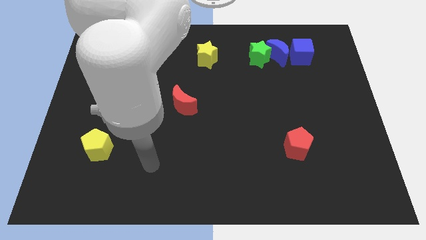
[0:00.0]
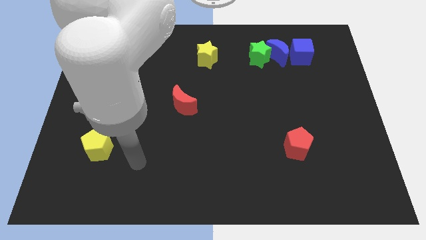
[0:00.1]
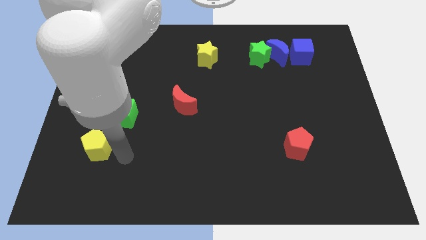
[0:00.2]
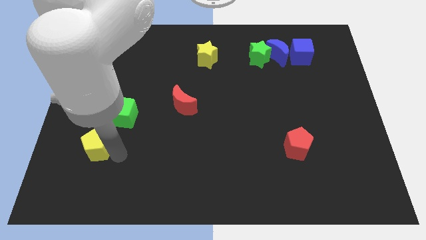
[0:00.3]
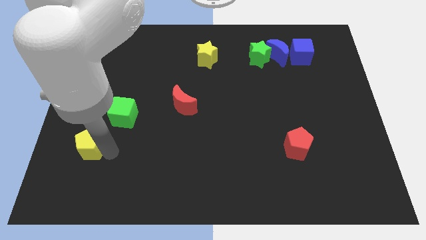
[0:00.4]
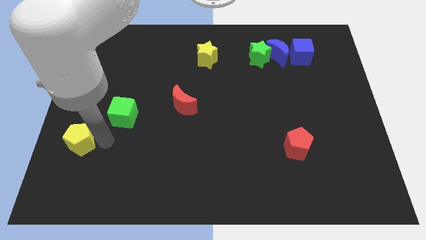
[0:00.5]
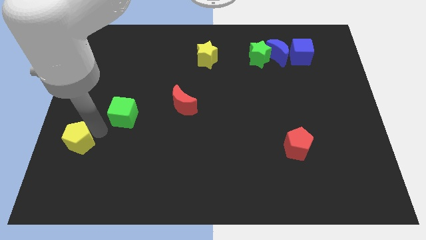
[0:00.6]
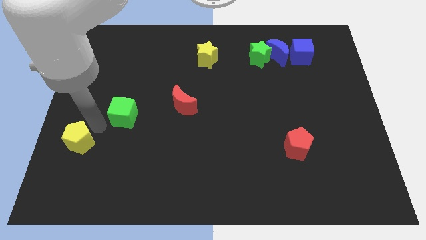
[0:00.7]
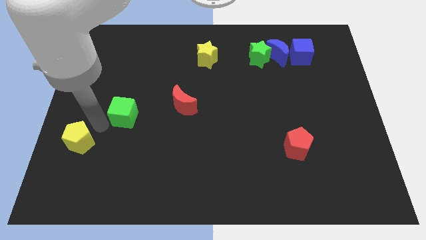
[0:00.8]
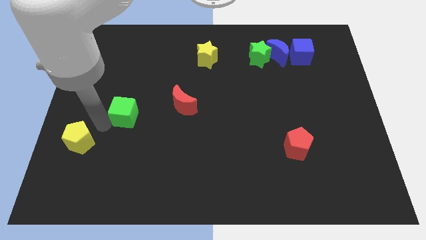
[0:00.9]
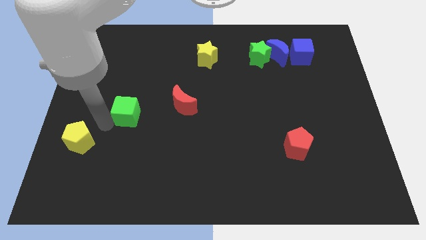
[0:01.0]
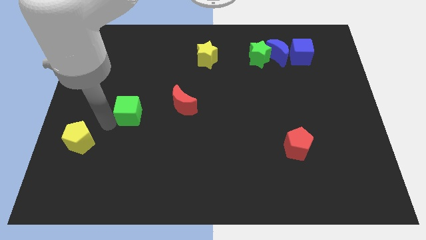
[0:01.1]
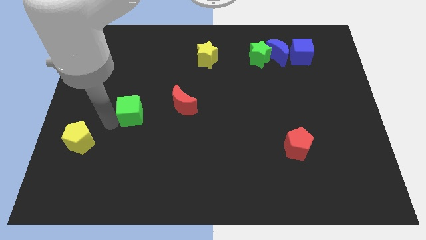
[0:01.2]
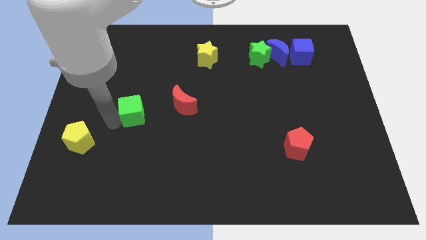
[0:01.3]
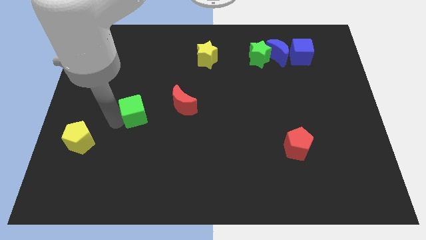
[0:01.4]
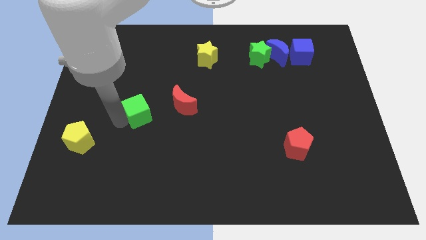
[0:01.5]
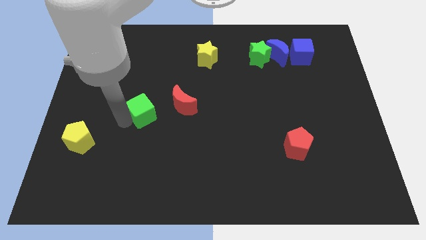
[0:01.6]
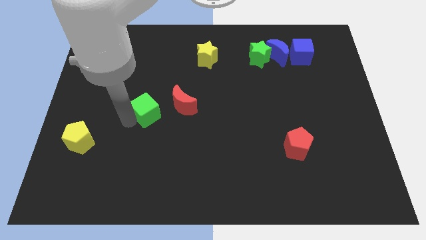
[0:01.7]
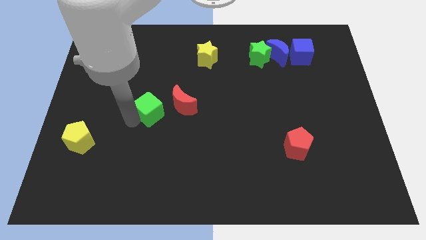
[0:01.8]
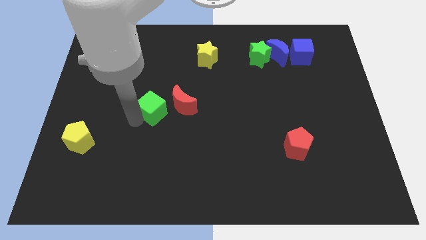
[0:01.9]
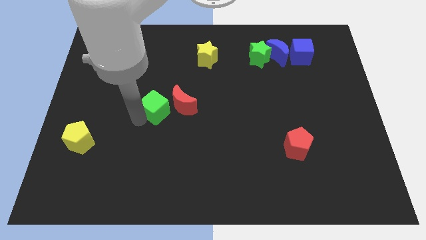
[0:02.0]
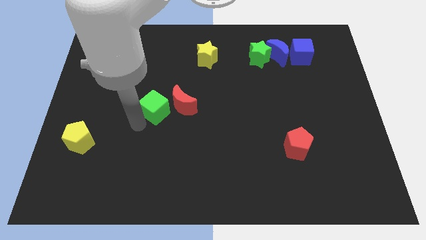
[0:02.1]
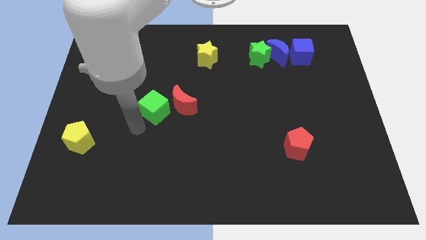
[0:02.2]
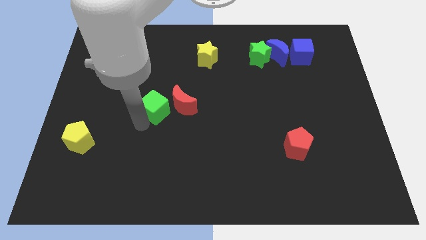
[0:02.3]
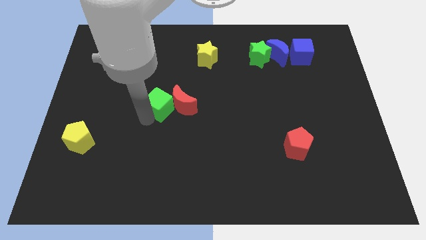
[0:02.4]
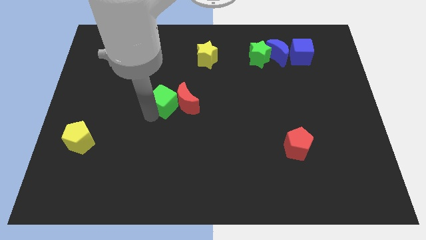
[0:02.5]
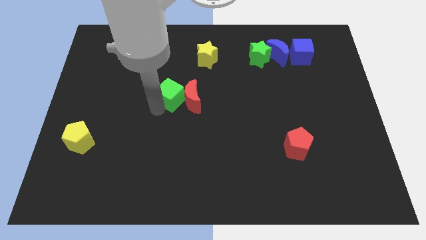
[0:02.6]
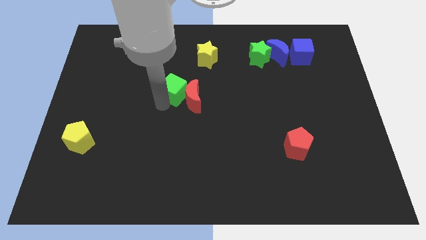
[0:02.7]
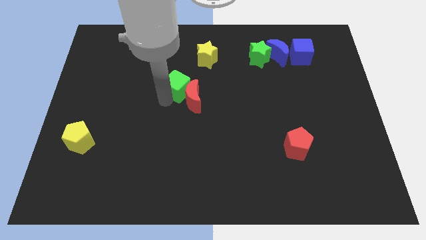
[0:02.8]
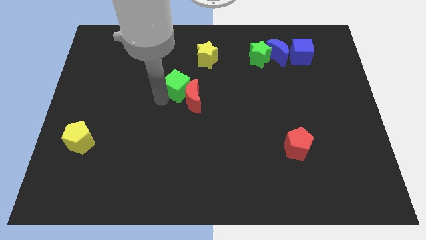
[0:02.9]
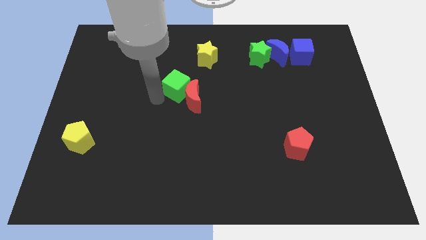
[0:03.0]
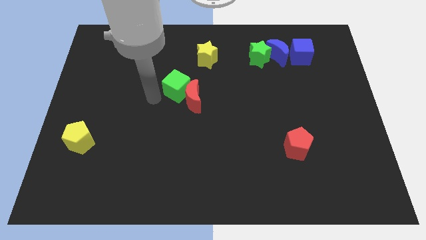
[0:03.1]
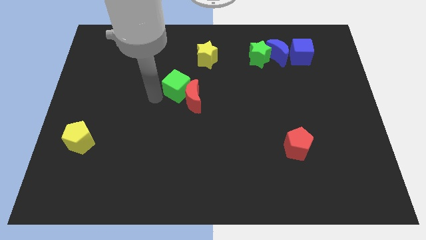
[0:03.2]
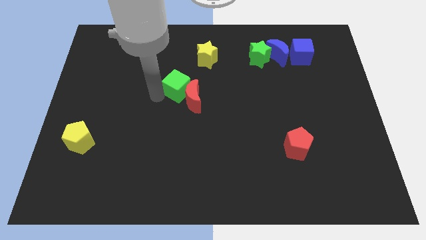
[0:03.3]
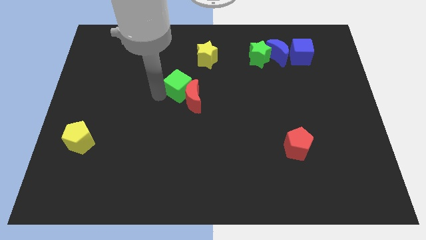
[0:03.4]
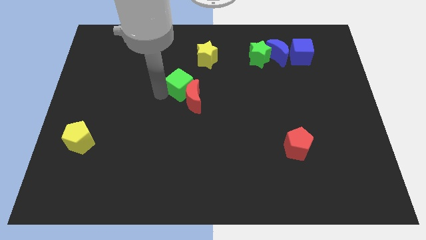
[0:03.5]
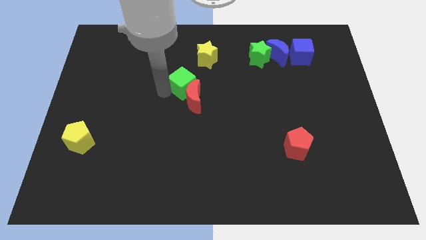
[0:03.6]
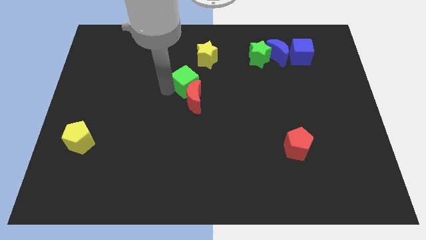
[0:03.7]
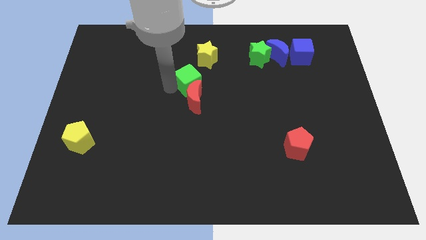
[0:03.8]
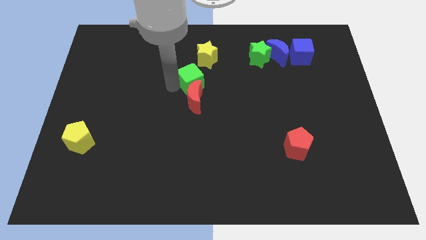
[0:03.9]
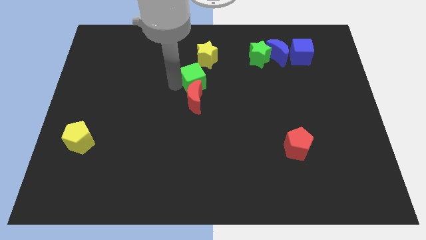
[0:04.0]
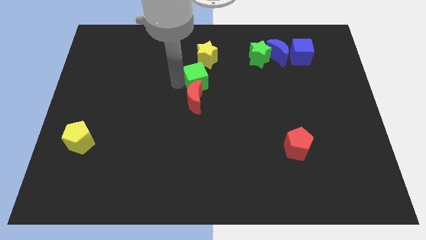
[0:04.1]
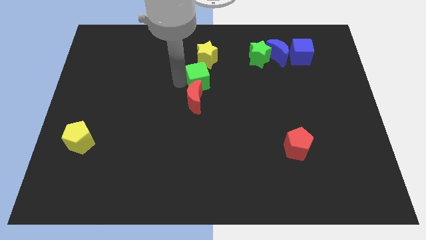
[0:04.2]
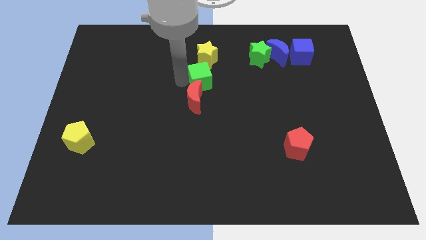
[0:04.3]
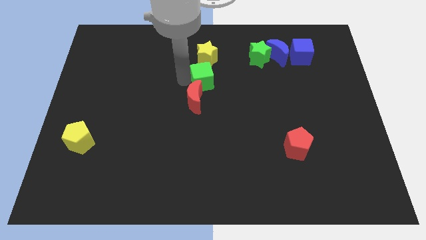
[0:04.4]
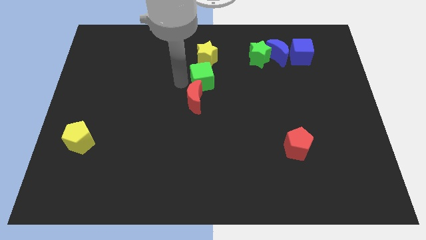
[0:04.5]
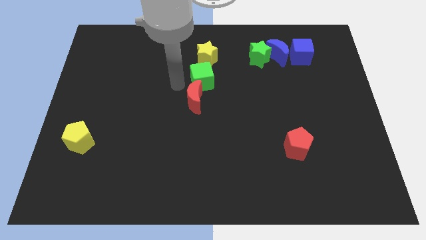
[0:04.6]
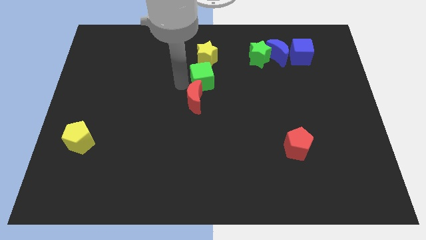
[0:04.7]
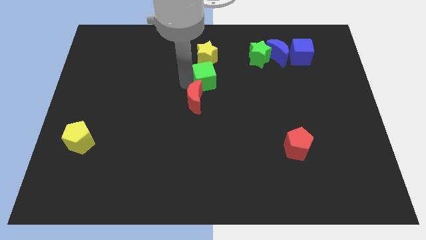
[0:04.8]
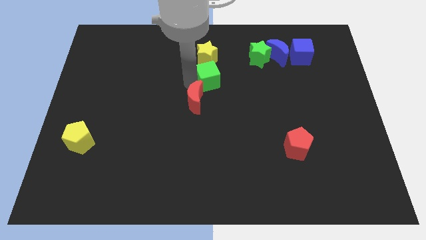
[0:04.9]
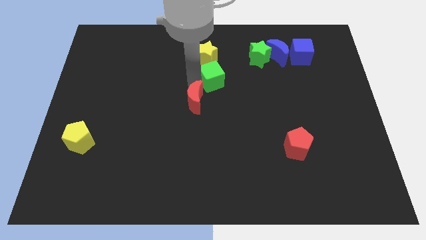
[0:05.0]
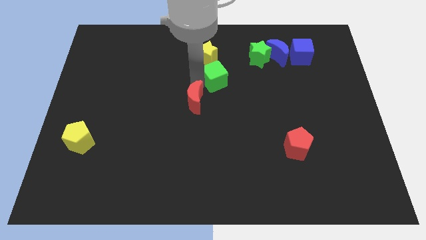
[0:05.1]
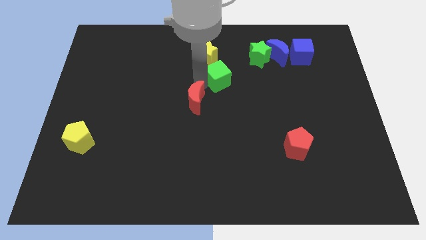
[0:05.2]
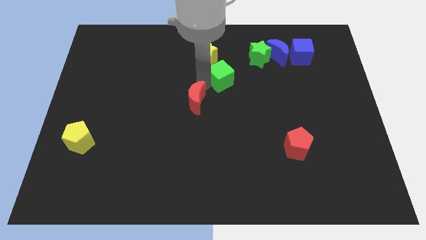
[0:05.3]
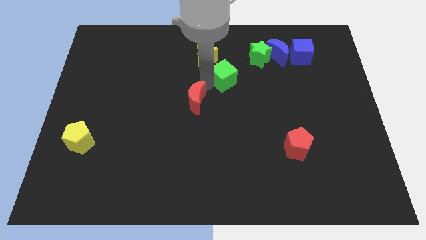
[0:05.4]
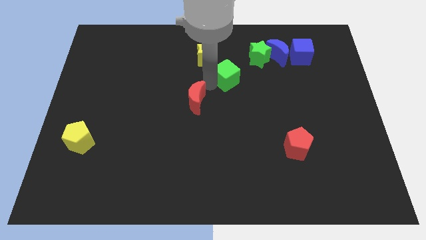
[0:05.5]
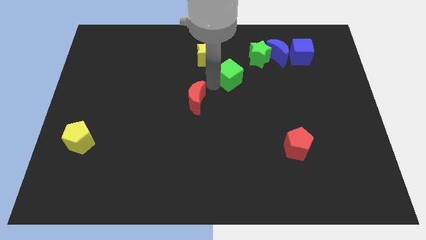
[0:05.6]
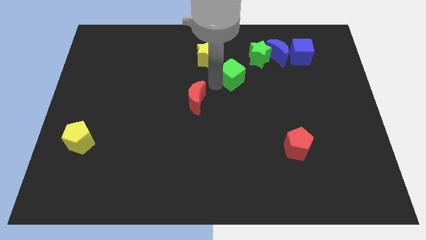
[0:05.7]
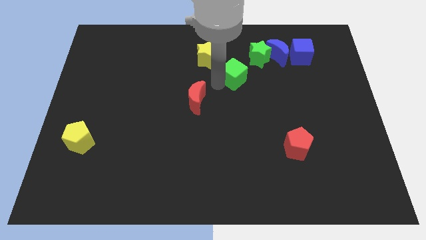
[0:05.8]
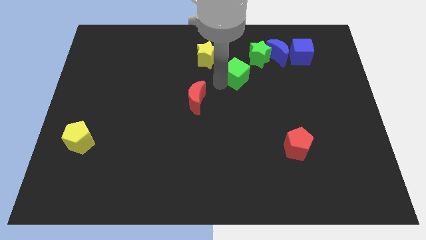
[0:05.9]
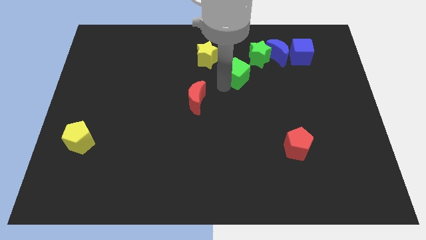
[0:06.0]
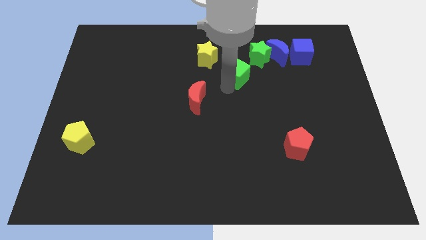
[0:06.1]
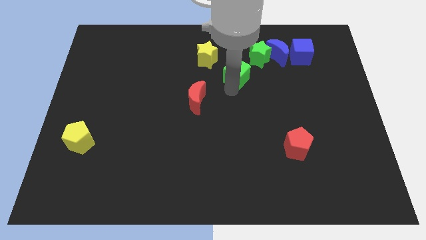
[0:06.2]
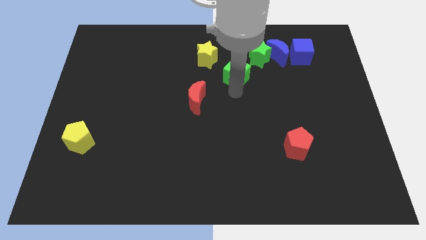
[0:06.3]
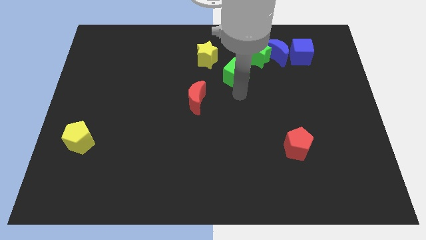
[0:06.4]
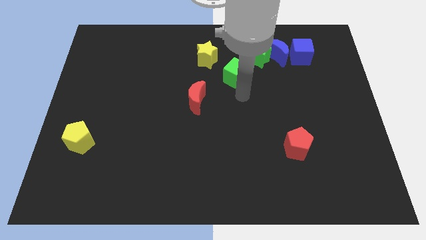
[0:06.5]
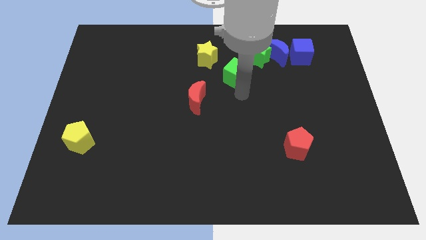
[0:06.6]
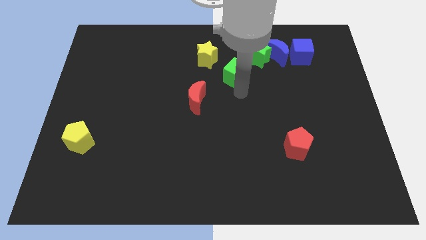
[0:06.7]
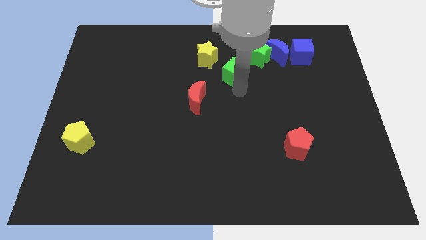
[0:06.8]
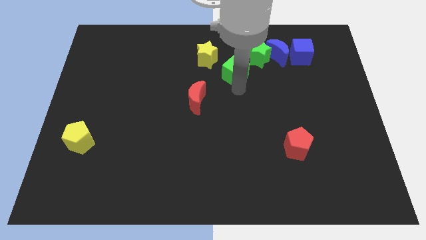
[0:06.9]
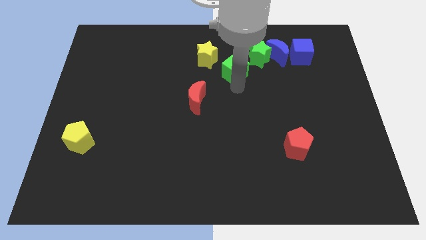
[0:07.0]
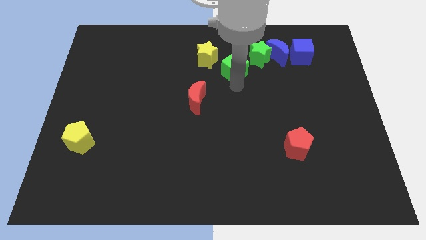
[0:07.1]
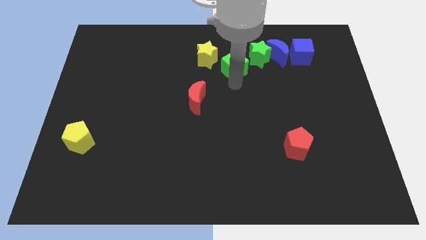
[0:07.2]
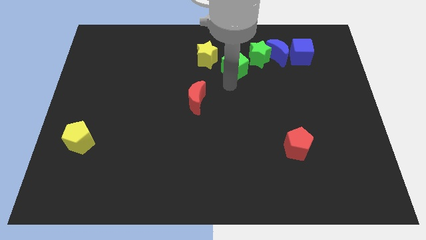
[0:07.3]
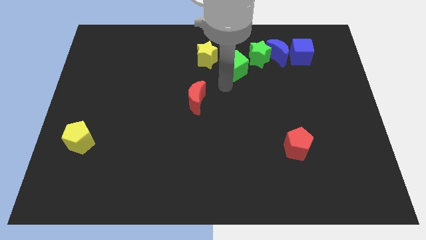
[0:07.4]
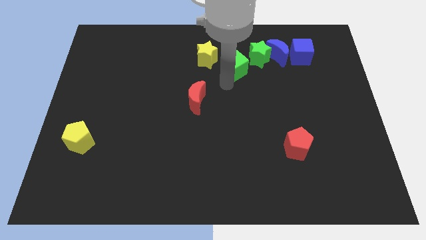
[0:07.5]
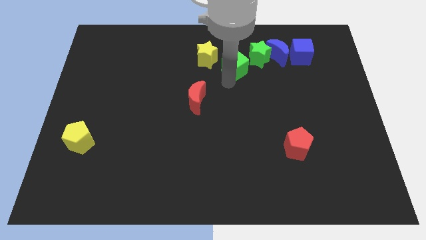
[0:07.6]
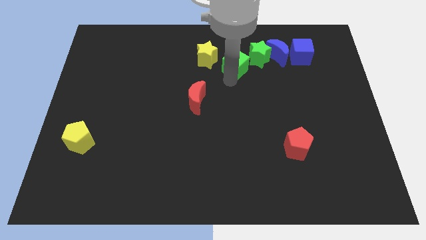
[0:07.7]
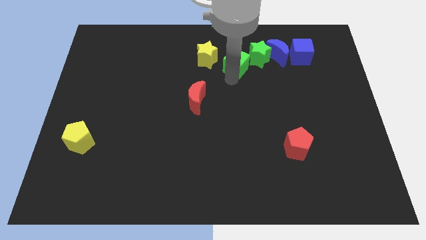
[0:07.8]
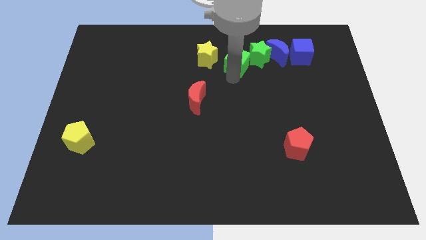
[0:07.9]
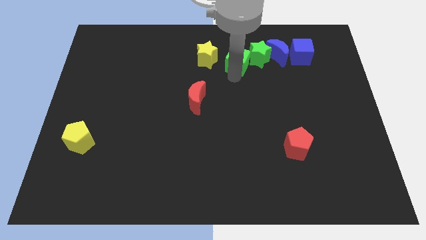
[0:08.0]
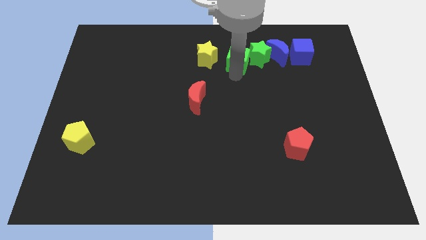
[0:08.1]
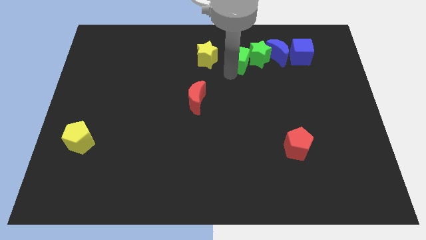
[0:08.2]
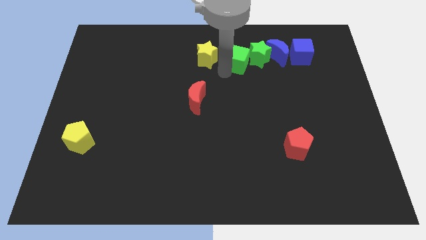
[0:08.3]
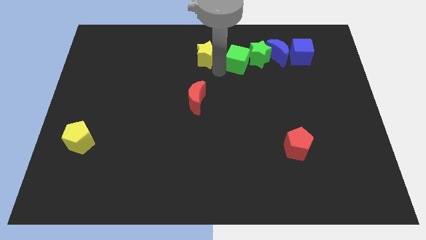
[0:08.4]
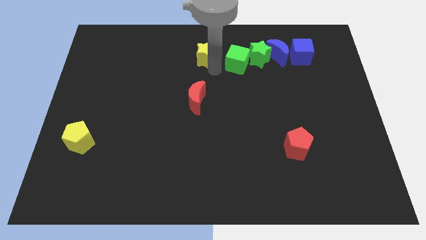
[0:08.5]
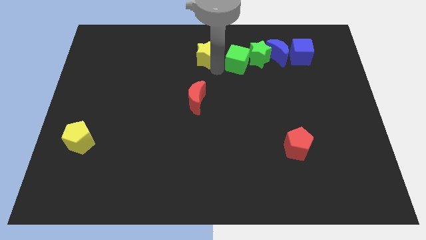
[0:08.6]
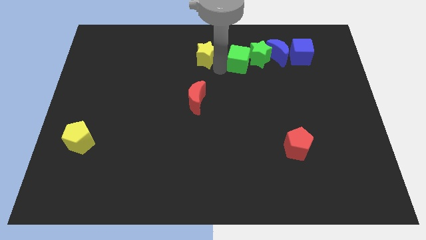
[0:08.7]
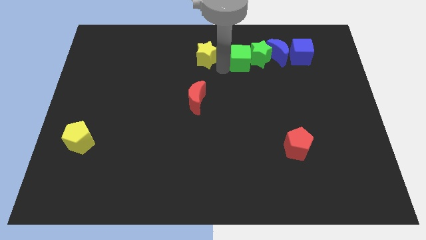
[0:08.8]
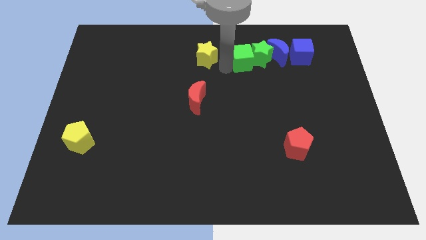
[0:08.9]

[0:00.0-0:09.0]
put the green cube just left of the blue cube
